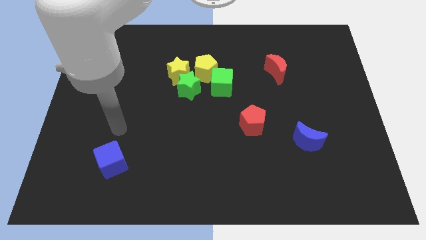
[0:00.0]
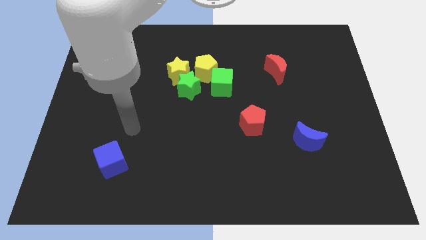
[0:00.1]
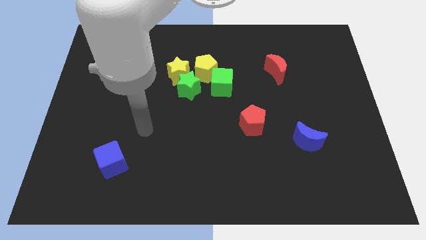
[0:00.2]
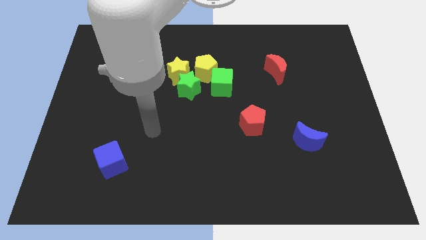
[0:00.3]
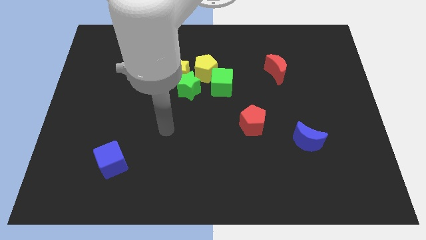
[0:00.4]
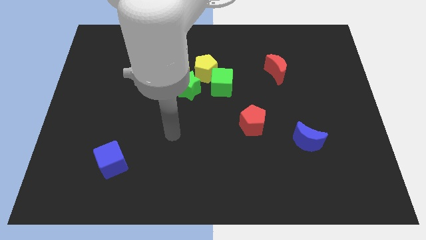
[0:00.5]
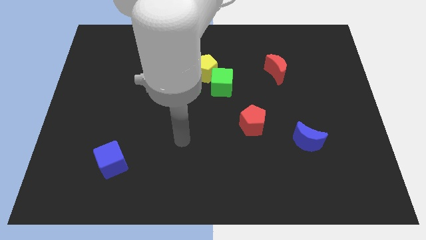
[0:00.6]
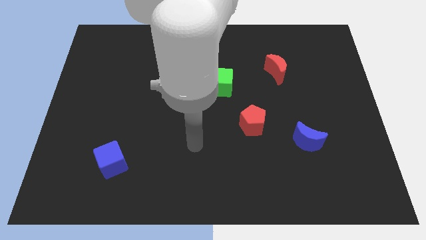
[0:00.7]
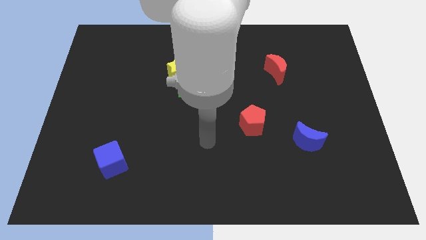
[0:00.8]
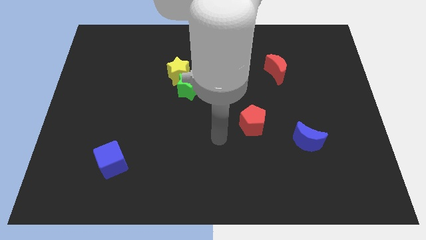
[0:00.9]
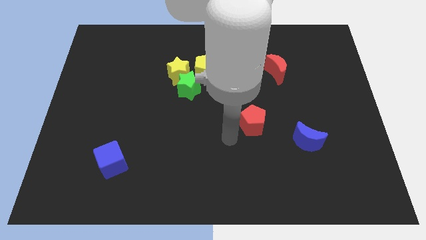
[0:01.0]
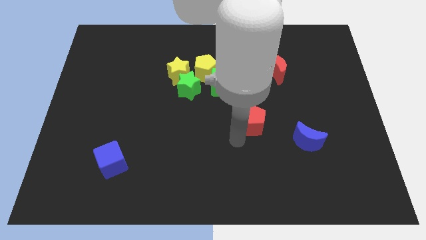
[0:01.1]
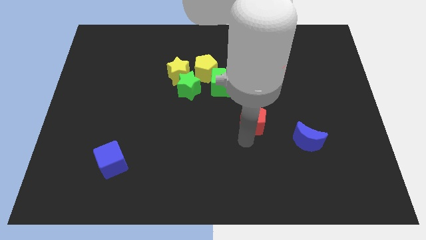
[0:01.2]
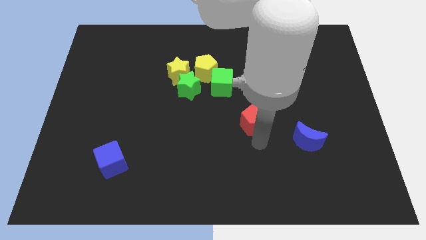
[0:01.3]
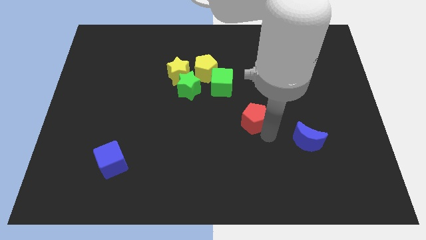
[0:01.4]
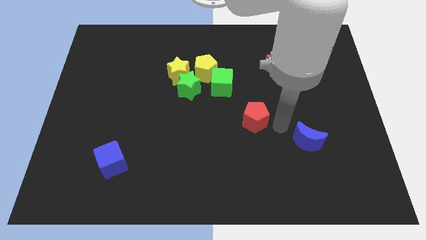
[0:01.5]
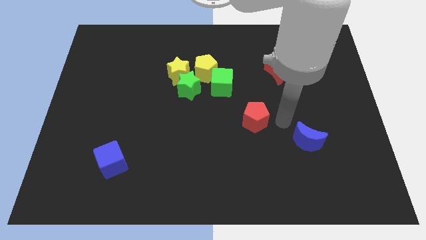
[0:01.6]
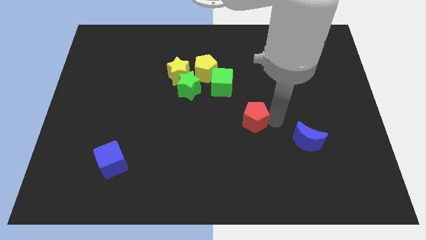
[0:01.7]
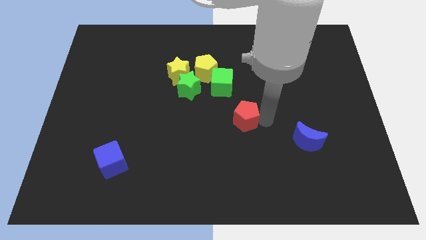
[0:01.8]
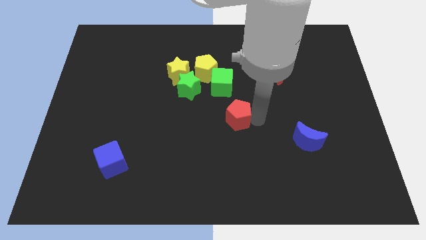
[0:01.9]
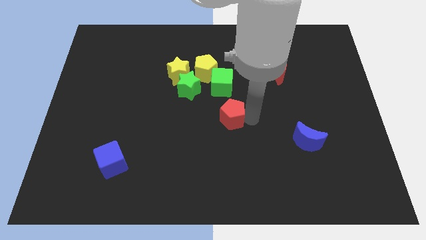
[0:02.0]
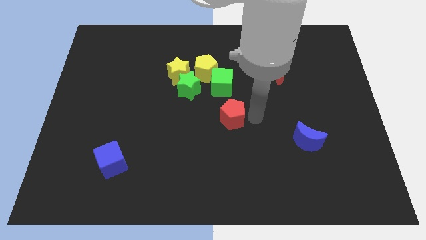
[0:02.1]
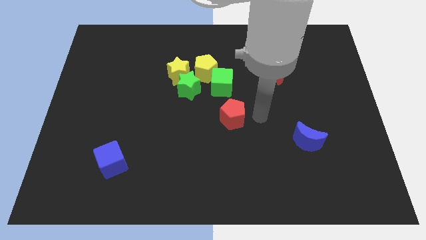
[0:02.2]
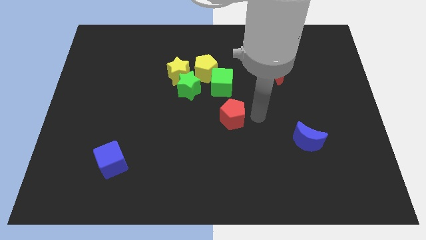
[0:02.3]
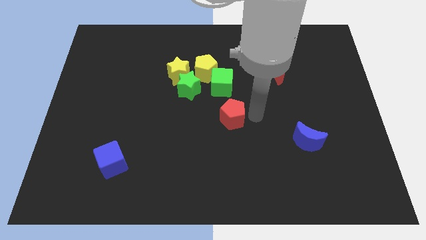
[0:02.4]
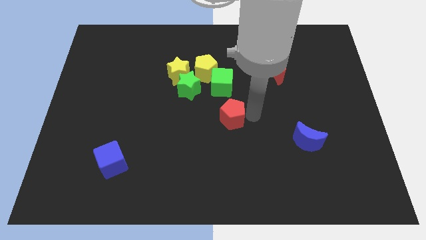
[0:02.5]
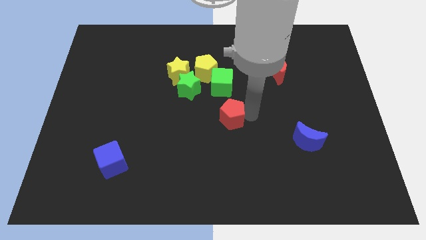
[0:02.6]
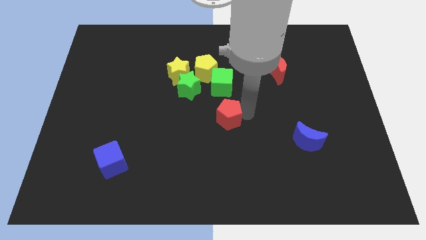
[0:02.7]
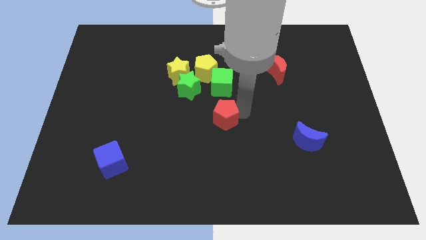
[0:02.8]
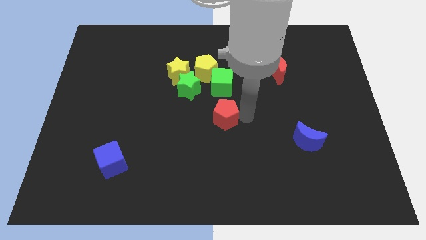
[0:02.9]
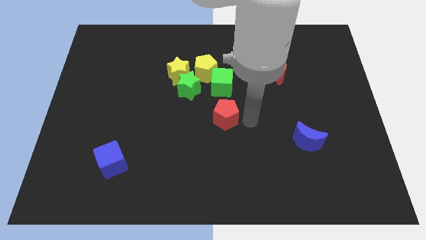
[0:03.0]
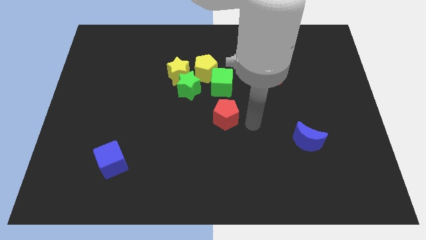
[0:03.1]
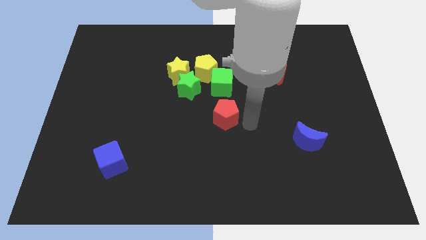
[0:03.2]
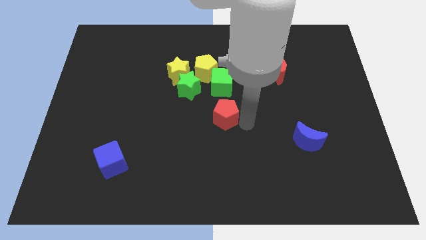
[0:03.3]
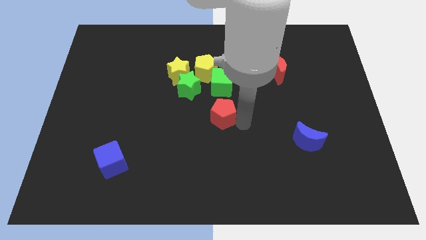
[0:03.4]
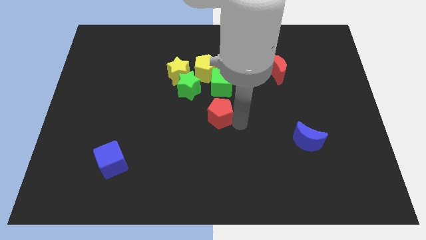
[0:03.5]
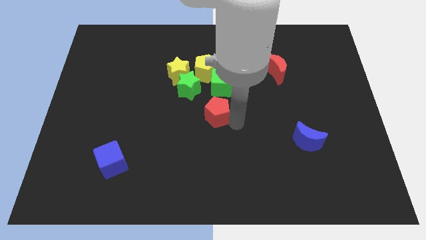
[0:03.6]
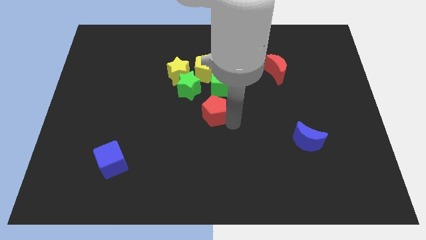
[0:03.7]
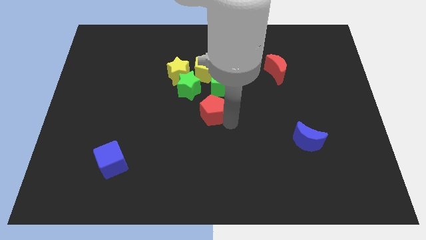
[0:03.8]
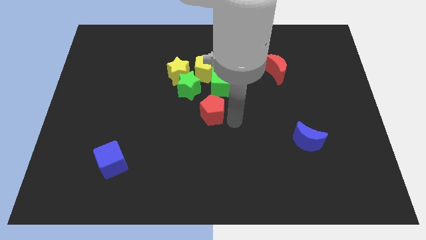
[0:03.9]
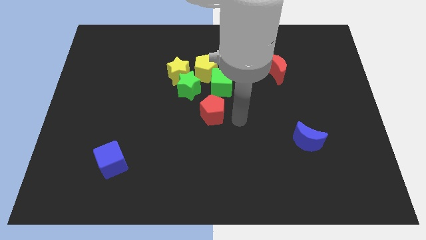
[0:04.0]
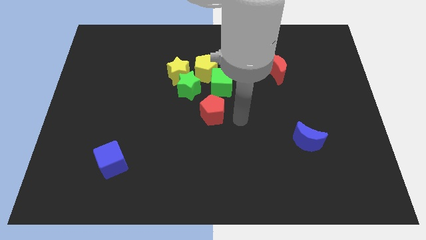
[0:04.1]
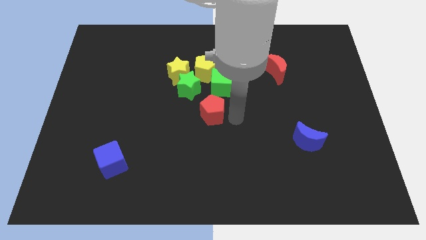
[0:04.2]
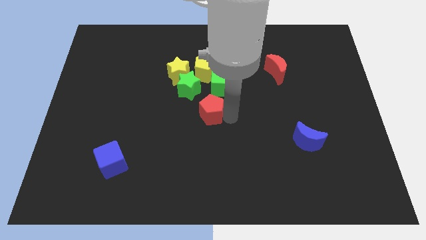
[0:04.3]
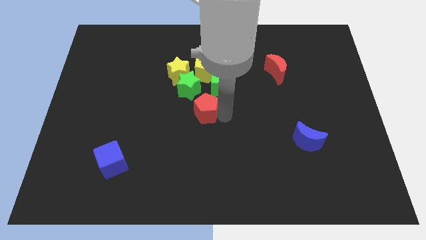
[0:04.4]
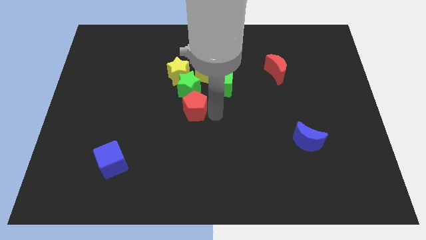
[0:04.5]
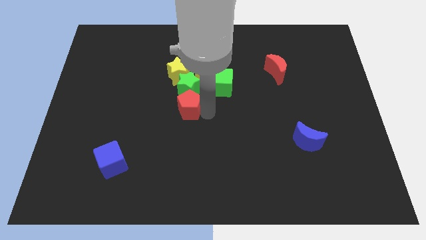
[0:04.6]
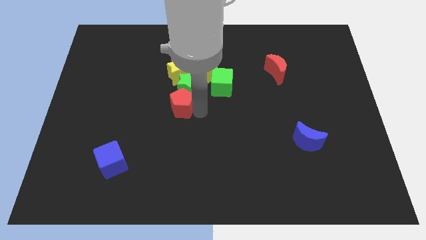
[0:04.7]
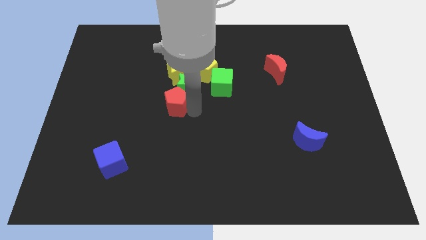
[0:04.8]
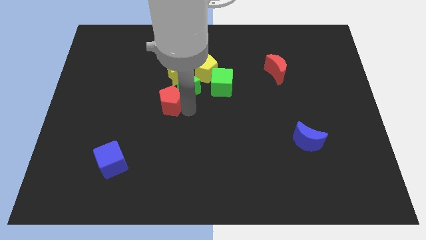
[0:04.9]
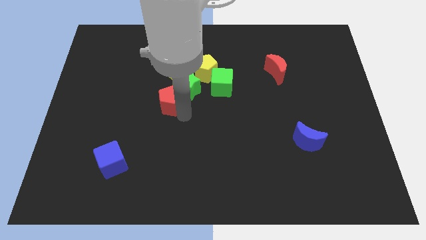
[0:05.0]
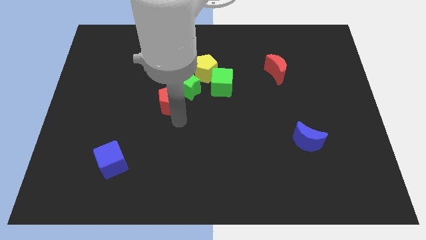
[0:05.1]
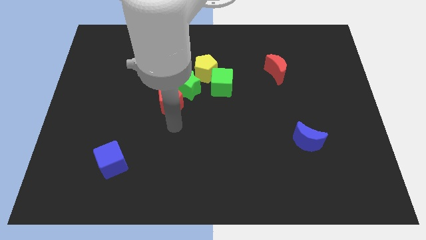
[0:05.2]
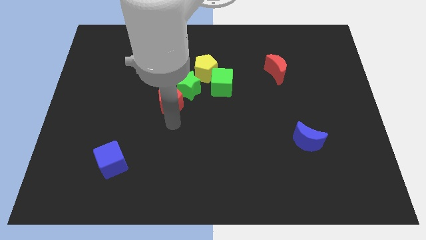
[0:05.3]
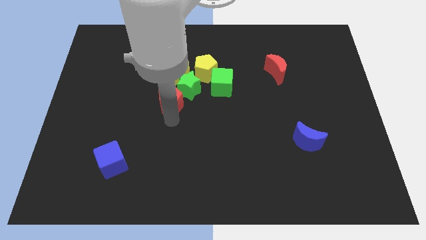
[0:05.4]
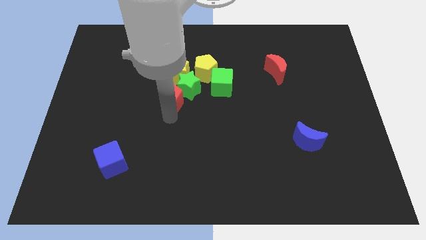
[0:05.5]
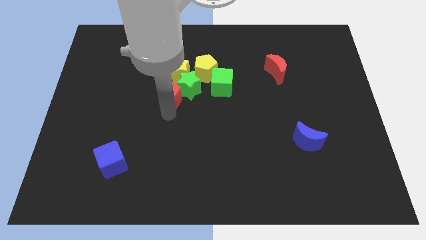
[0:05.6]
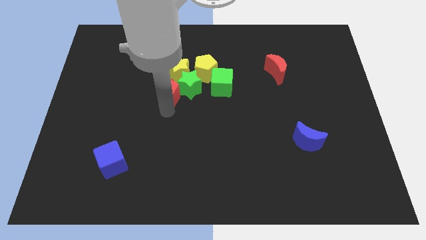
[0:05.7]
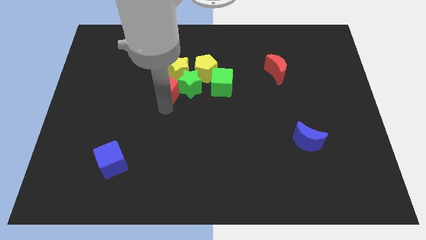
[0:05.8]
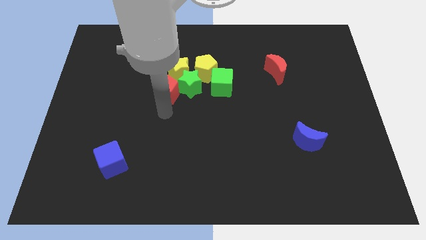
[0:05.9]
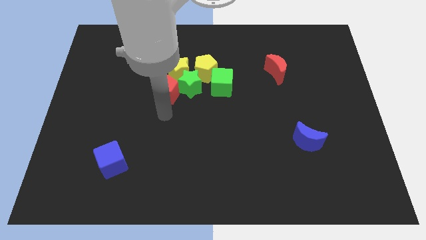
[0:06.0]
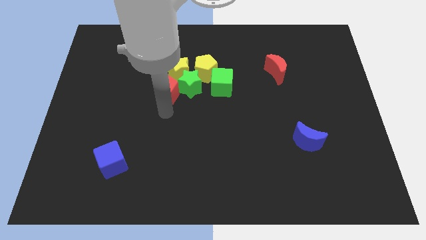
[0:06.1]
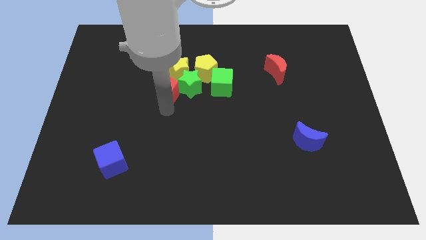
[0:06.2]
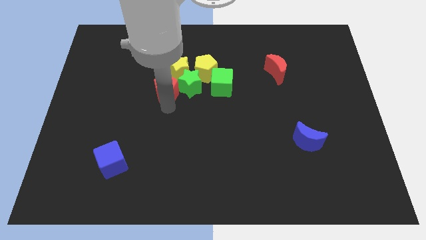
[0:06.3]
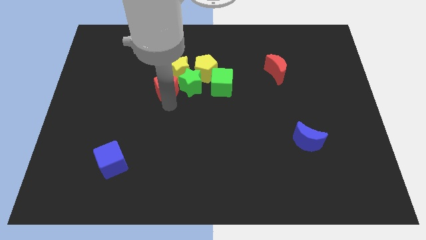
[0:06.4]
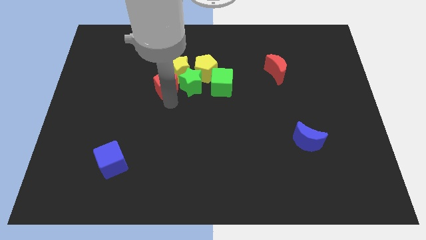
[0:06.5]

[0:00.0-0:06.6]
push the red pentagon diagonally up and to the left of the green star

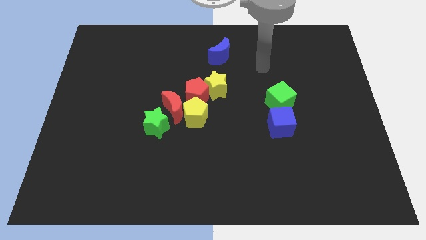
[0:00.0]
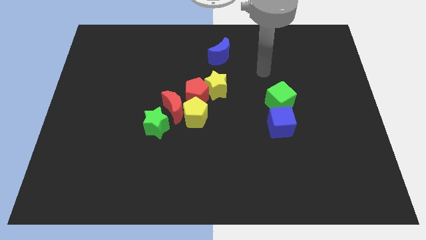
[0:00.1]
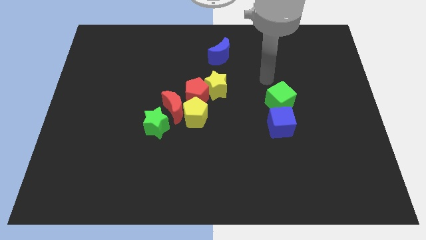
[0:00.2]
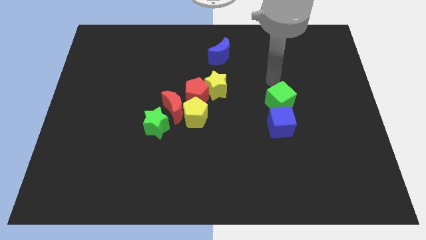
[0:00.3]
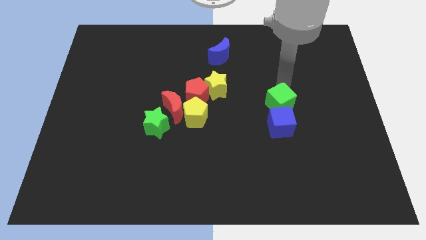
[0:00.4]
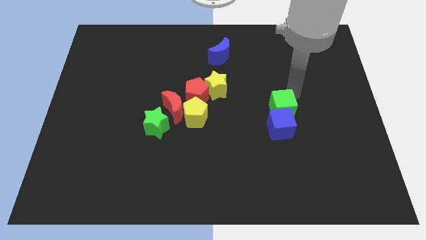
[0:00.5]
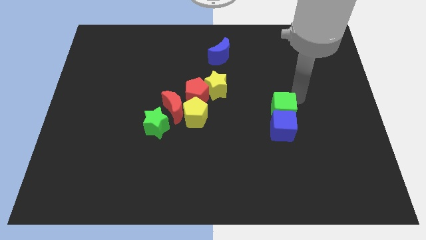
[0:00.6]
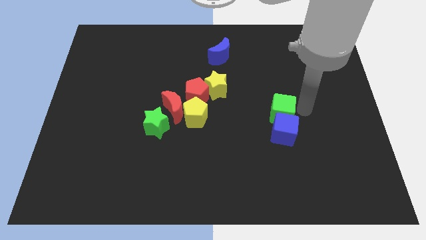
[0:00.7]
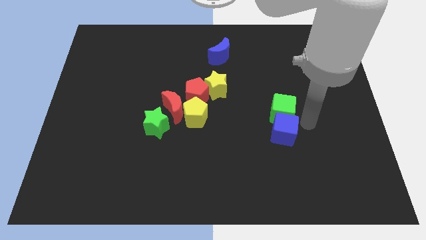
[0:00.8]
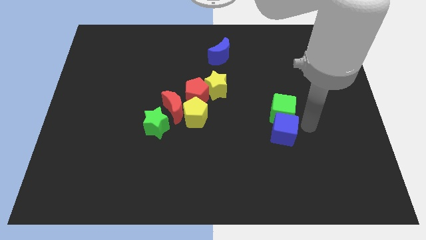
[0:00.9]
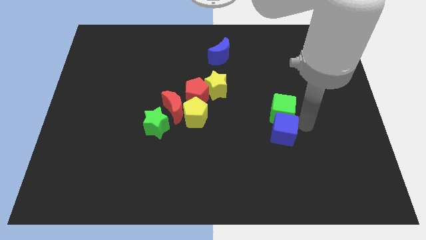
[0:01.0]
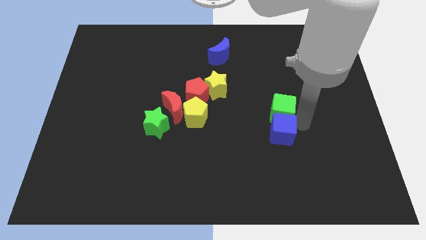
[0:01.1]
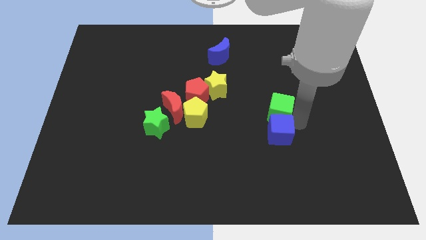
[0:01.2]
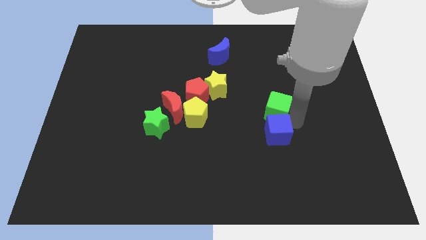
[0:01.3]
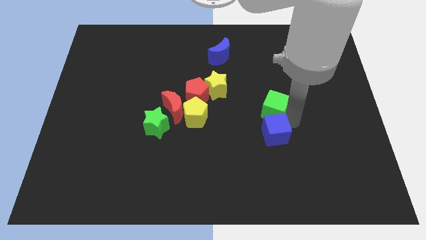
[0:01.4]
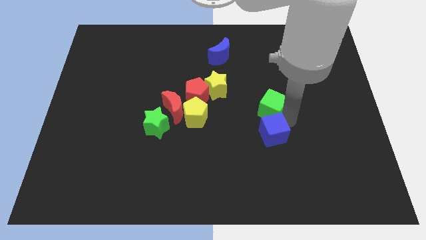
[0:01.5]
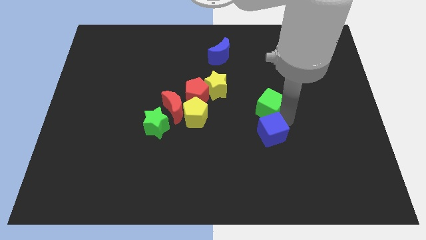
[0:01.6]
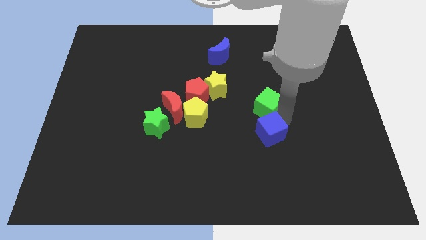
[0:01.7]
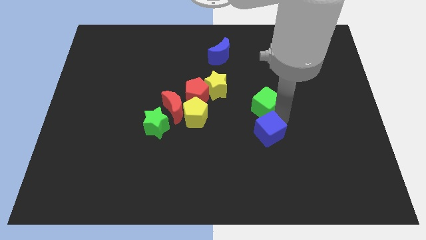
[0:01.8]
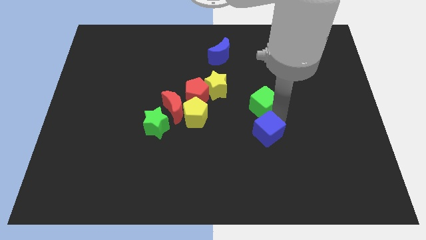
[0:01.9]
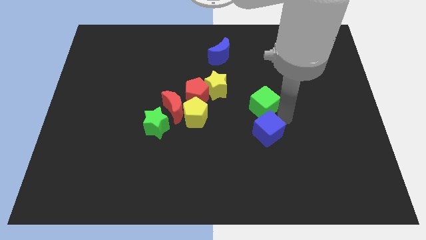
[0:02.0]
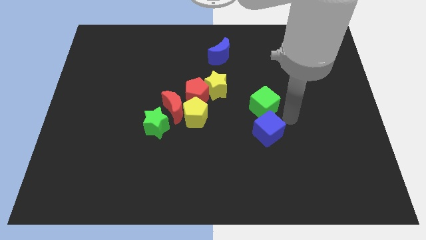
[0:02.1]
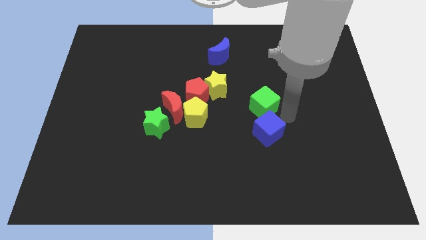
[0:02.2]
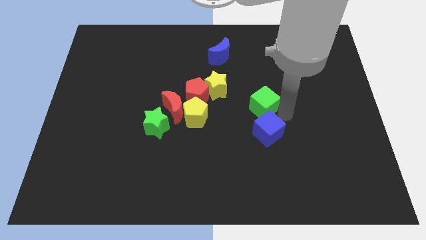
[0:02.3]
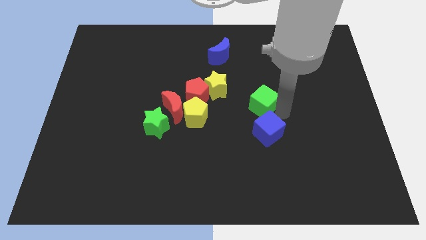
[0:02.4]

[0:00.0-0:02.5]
push the green cube to the right of the red pentagon
